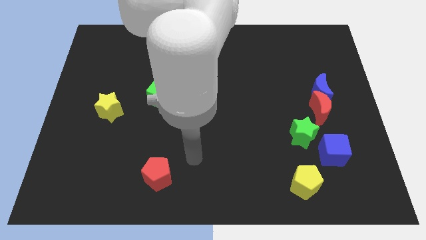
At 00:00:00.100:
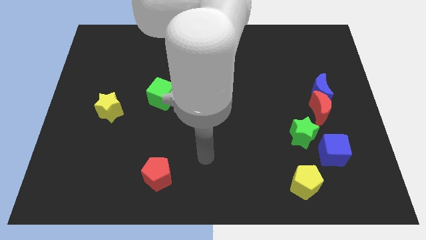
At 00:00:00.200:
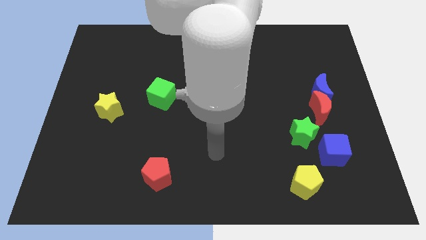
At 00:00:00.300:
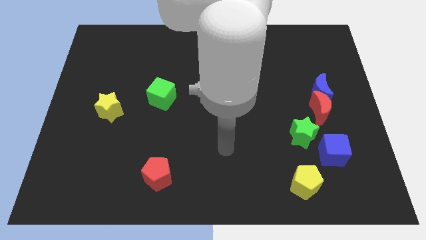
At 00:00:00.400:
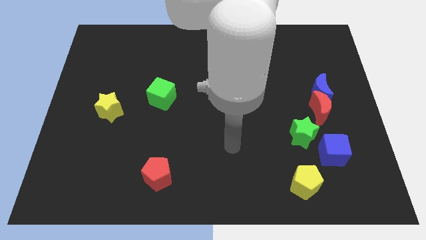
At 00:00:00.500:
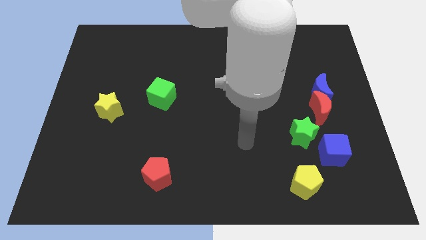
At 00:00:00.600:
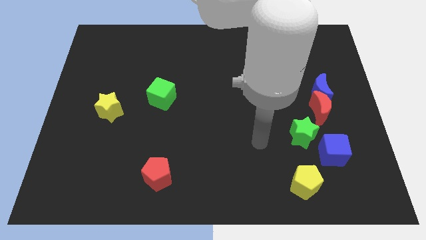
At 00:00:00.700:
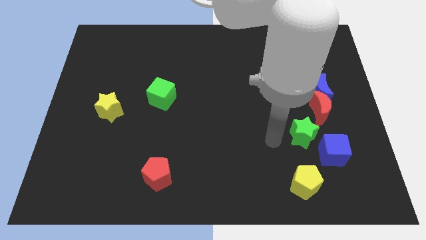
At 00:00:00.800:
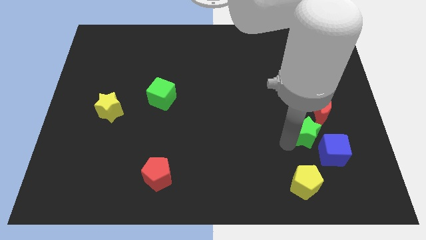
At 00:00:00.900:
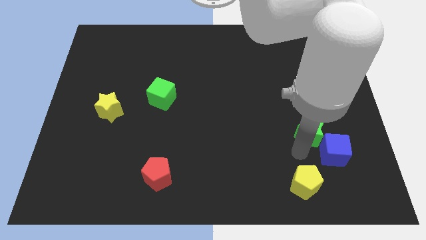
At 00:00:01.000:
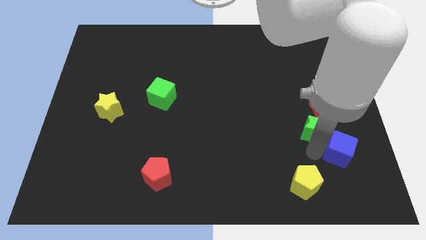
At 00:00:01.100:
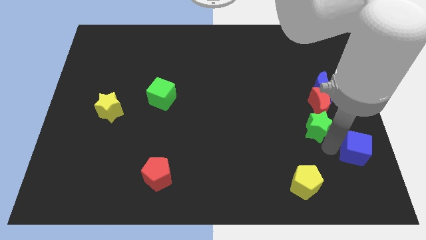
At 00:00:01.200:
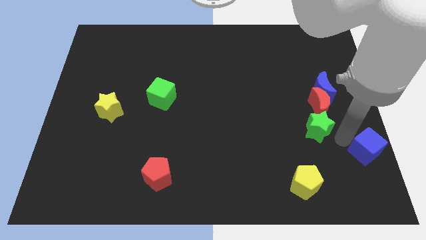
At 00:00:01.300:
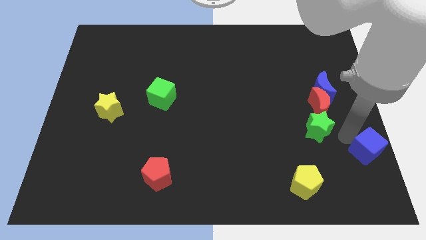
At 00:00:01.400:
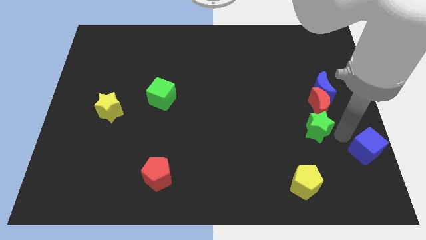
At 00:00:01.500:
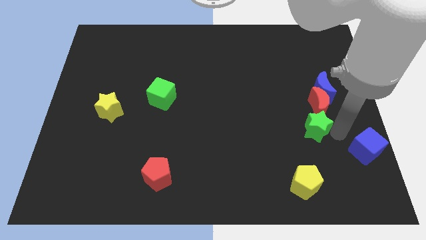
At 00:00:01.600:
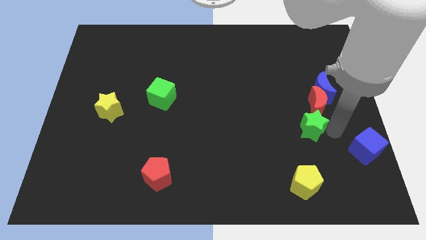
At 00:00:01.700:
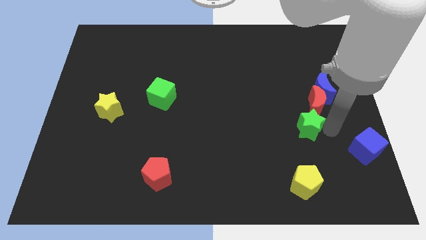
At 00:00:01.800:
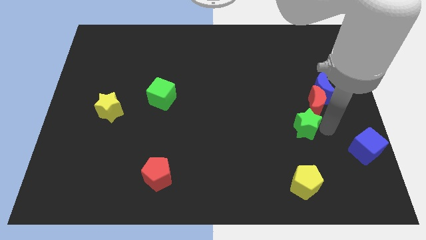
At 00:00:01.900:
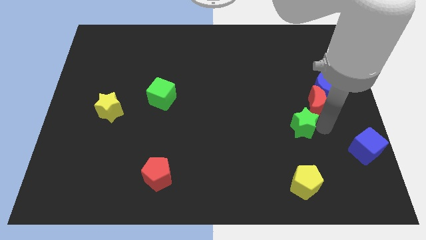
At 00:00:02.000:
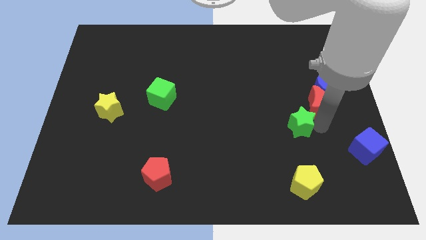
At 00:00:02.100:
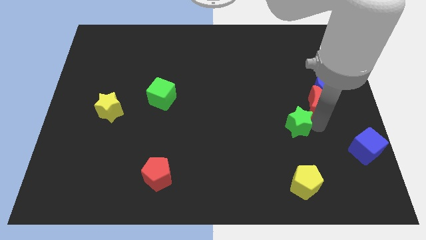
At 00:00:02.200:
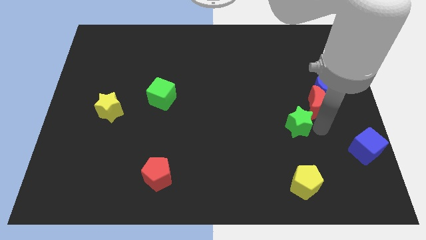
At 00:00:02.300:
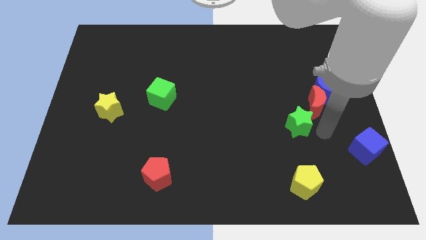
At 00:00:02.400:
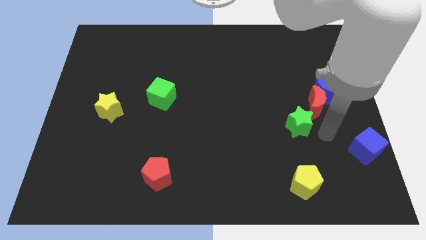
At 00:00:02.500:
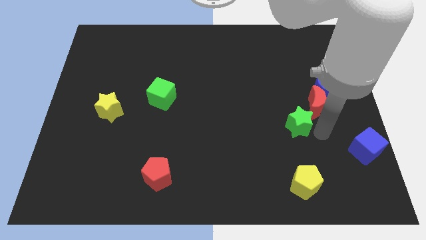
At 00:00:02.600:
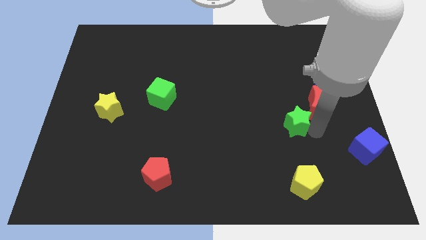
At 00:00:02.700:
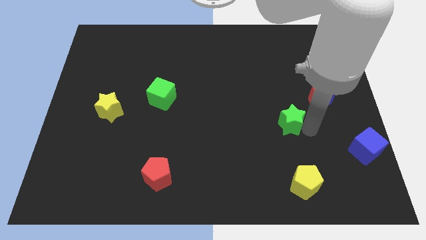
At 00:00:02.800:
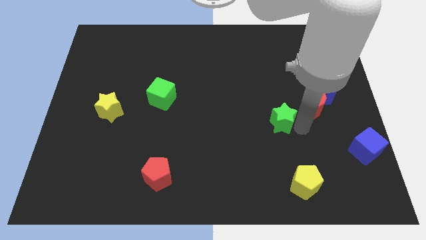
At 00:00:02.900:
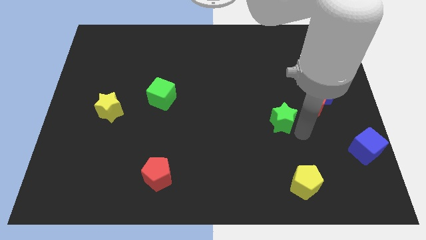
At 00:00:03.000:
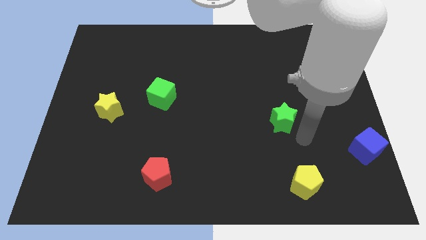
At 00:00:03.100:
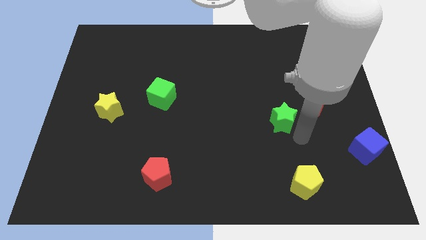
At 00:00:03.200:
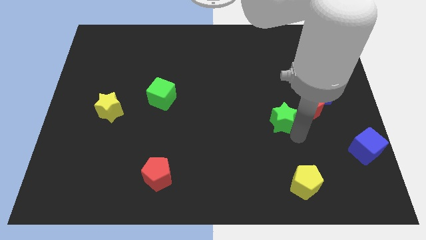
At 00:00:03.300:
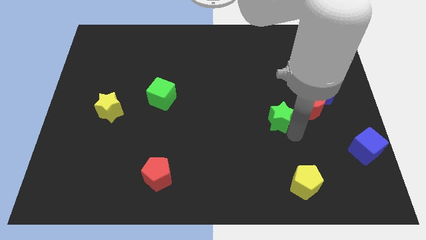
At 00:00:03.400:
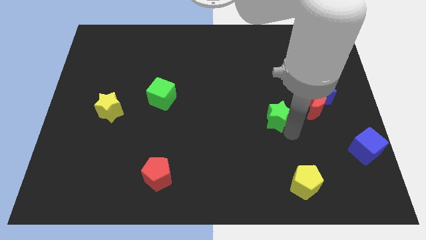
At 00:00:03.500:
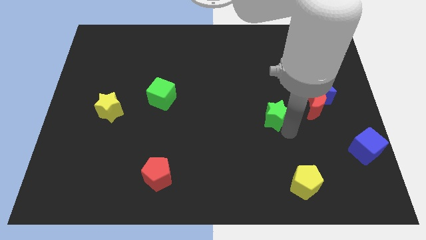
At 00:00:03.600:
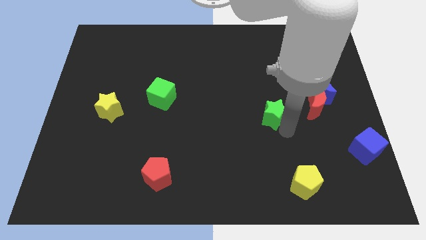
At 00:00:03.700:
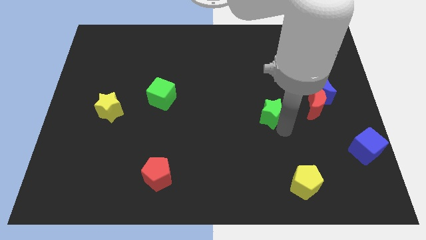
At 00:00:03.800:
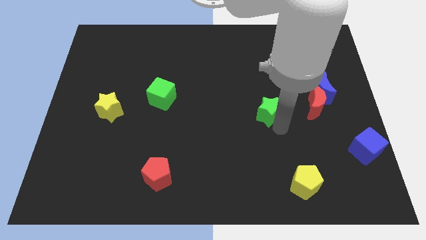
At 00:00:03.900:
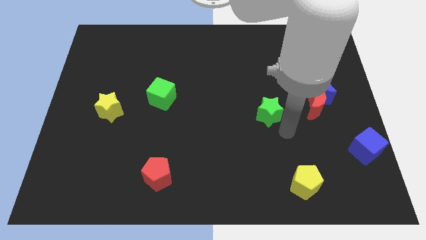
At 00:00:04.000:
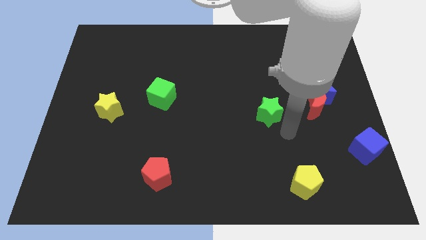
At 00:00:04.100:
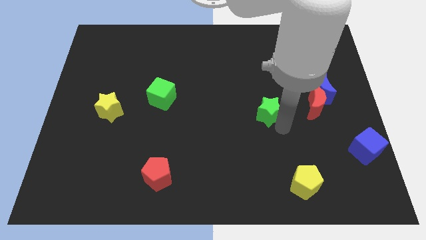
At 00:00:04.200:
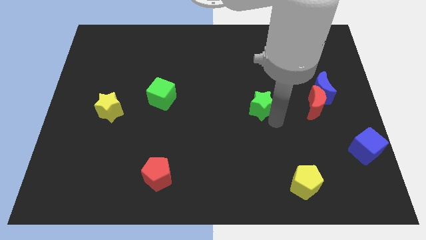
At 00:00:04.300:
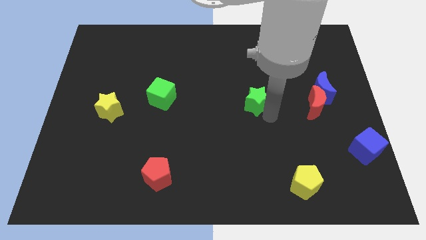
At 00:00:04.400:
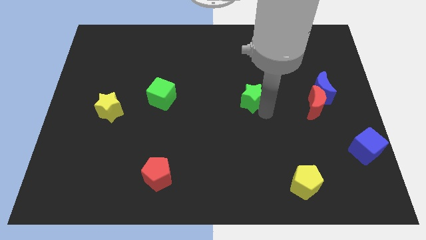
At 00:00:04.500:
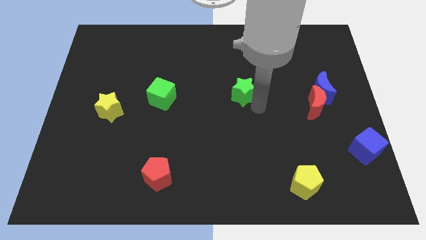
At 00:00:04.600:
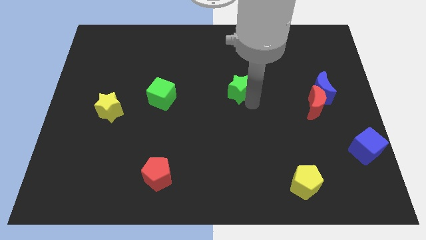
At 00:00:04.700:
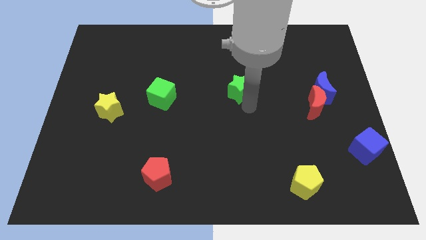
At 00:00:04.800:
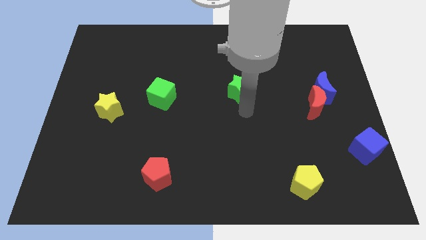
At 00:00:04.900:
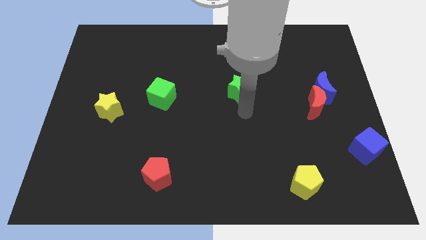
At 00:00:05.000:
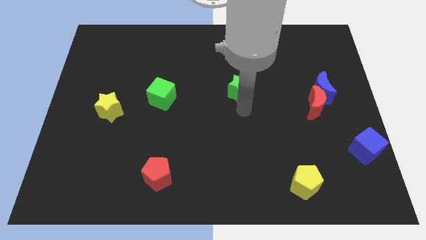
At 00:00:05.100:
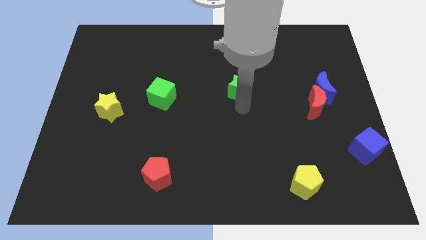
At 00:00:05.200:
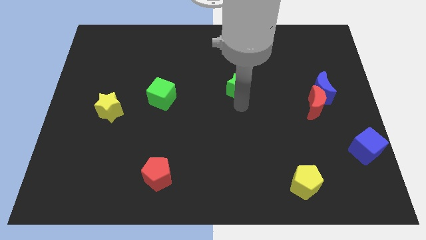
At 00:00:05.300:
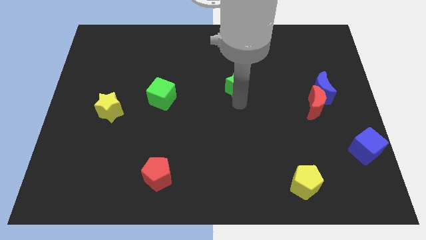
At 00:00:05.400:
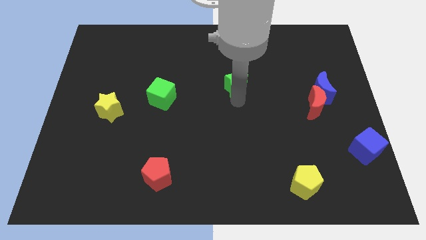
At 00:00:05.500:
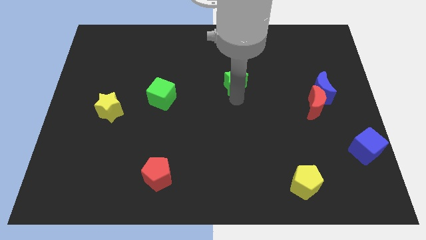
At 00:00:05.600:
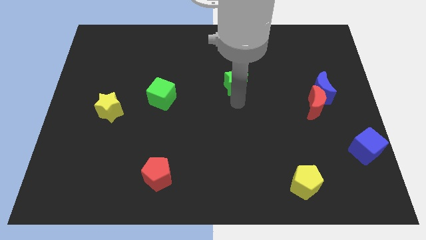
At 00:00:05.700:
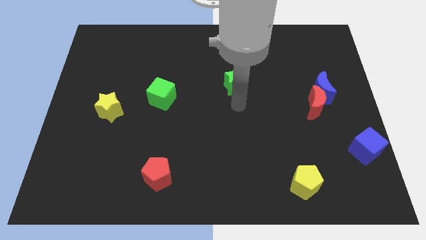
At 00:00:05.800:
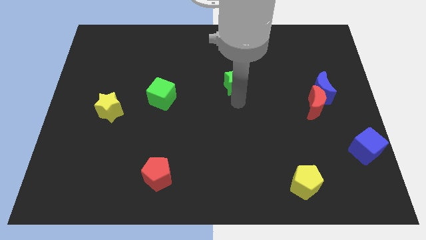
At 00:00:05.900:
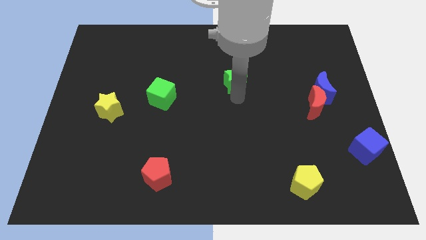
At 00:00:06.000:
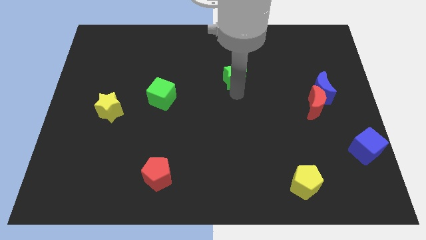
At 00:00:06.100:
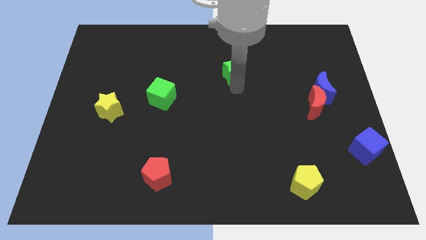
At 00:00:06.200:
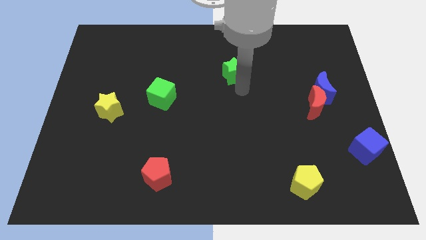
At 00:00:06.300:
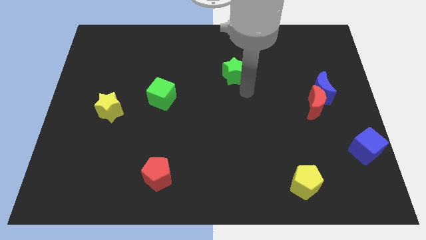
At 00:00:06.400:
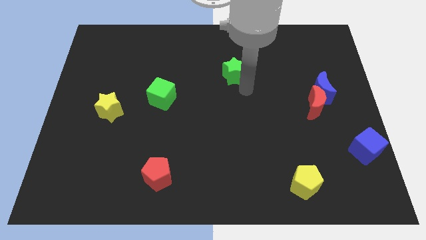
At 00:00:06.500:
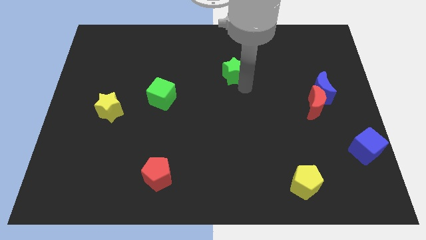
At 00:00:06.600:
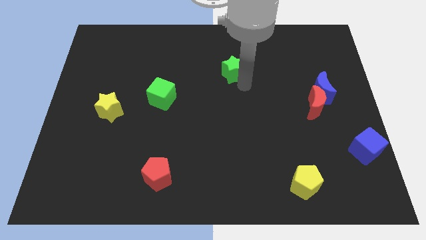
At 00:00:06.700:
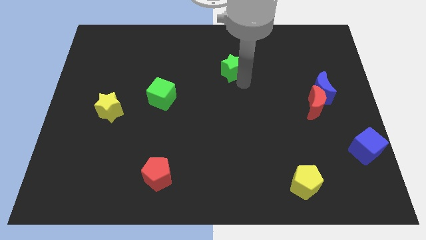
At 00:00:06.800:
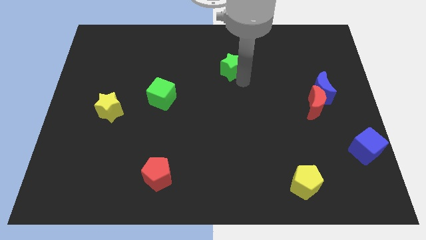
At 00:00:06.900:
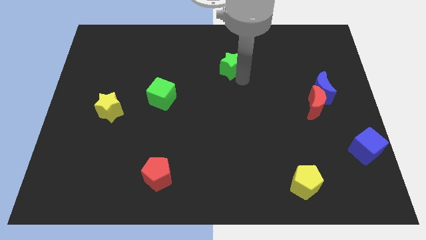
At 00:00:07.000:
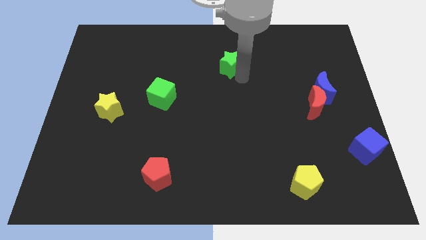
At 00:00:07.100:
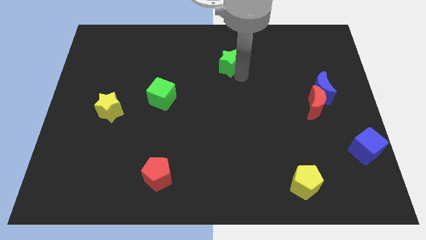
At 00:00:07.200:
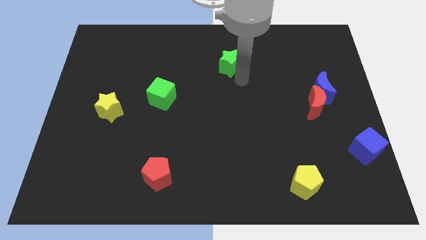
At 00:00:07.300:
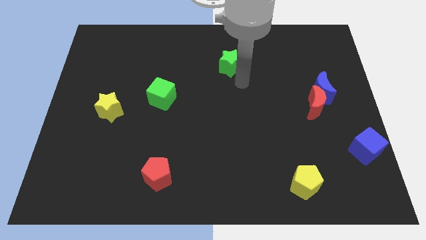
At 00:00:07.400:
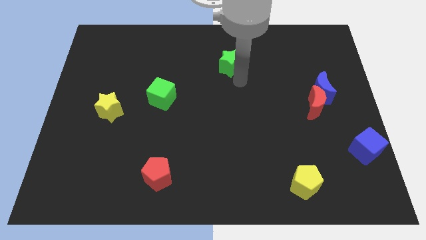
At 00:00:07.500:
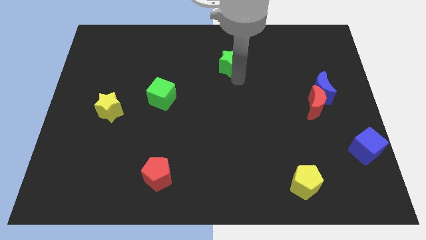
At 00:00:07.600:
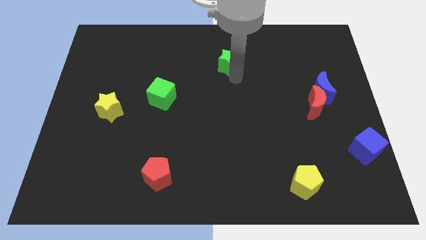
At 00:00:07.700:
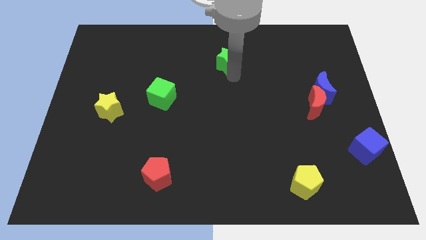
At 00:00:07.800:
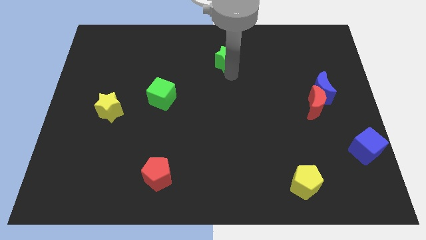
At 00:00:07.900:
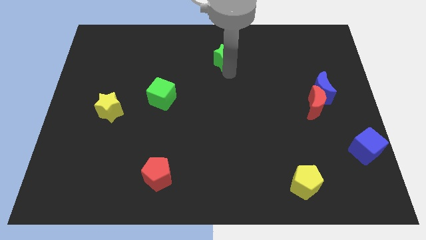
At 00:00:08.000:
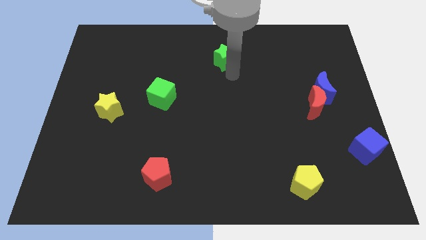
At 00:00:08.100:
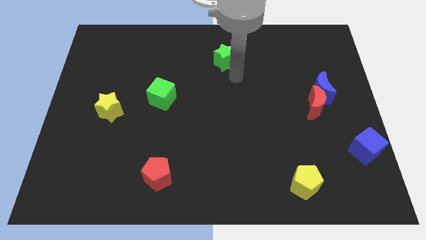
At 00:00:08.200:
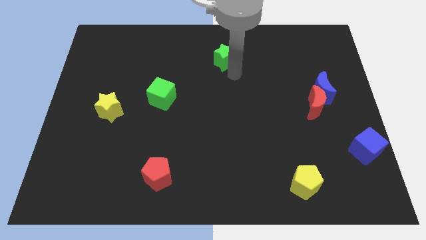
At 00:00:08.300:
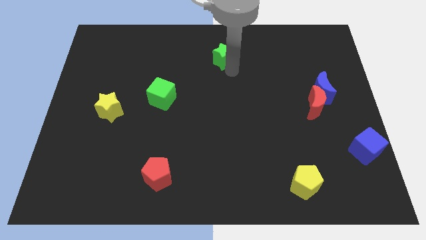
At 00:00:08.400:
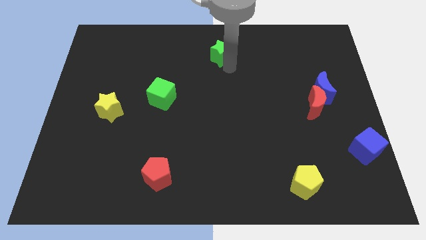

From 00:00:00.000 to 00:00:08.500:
slide the green star to the top
